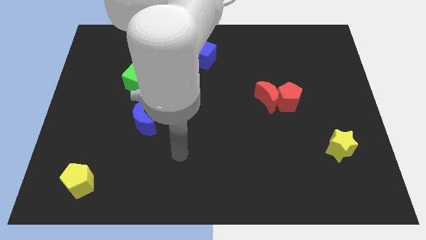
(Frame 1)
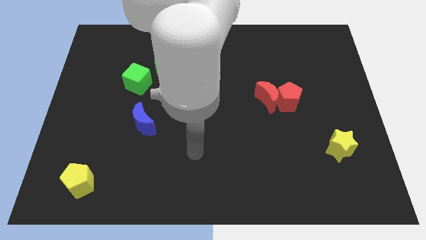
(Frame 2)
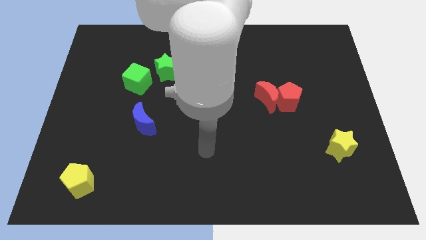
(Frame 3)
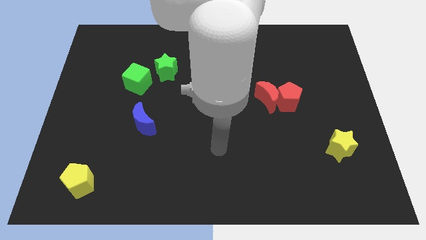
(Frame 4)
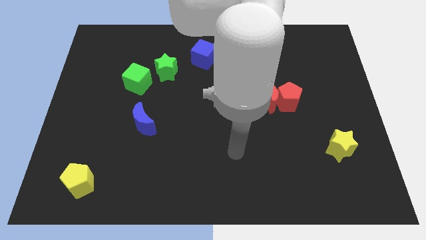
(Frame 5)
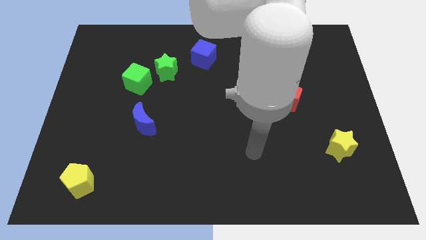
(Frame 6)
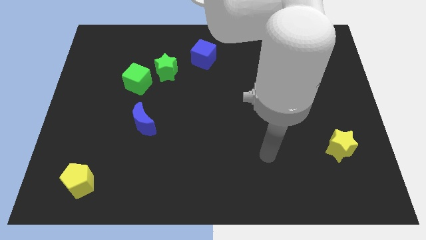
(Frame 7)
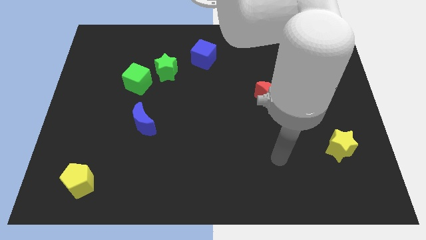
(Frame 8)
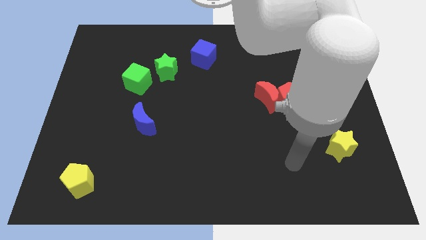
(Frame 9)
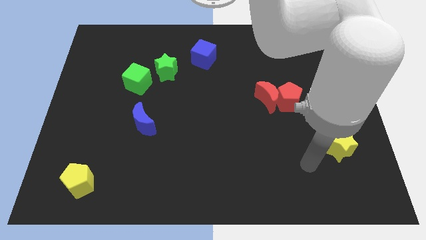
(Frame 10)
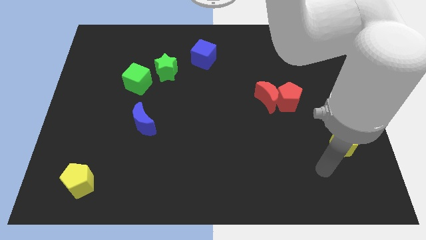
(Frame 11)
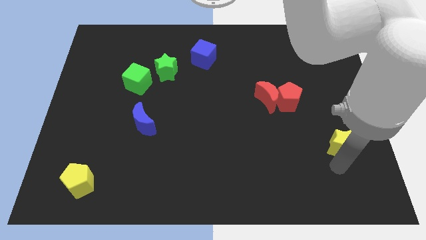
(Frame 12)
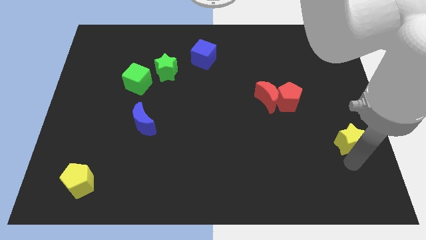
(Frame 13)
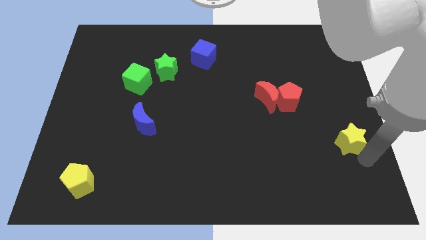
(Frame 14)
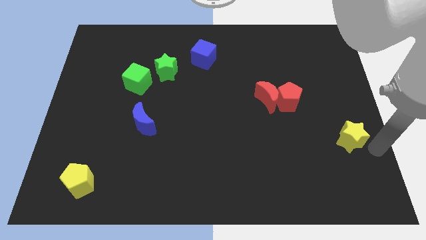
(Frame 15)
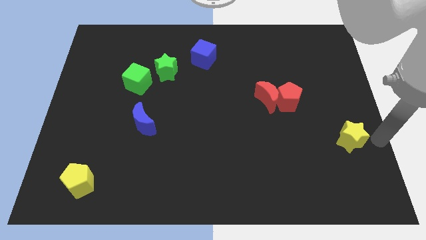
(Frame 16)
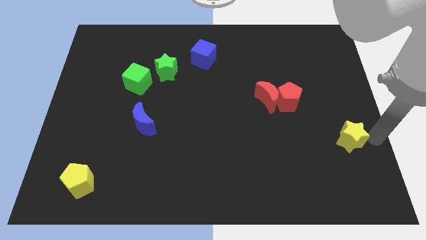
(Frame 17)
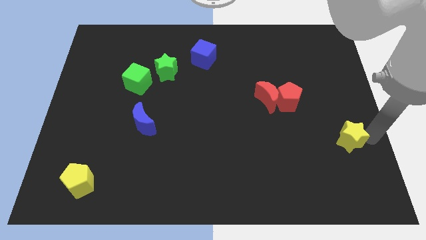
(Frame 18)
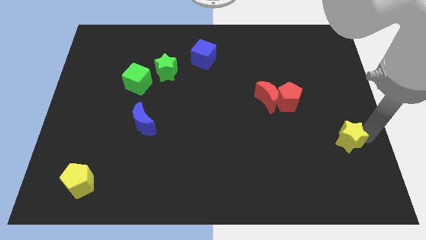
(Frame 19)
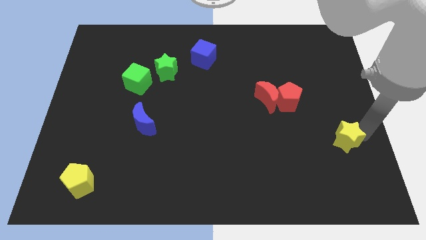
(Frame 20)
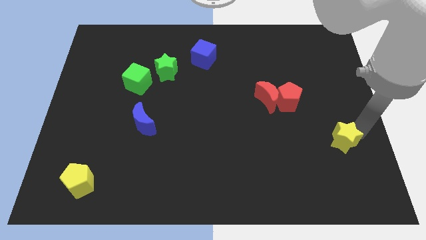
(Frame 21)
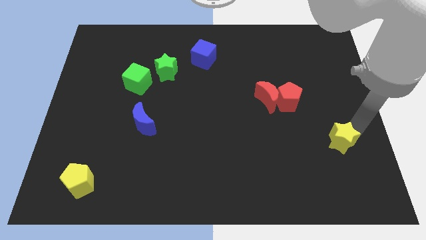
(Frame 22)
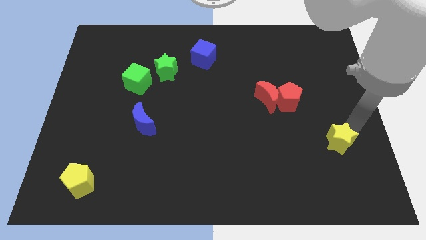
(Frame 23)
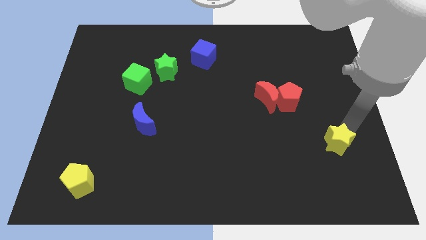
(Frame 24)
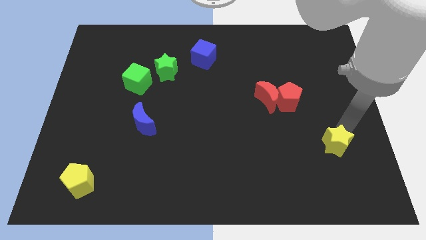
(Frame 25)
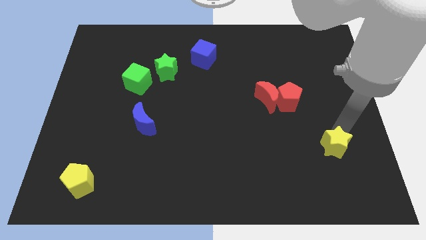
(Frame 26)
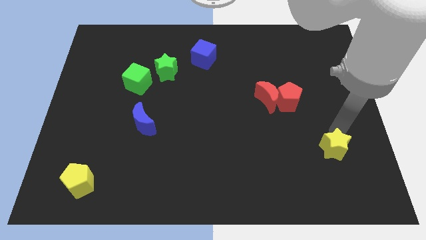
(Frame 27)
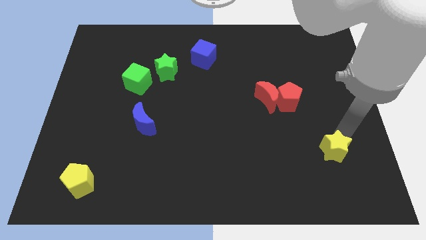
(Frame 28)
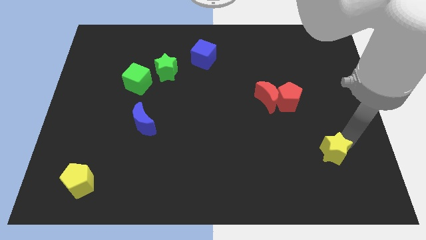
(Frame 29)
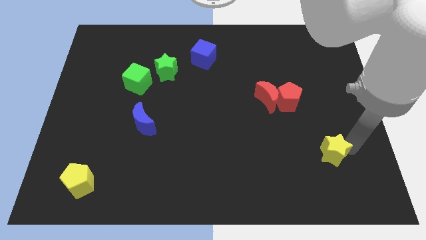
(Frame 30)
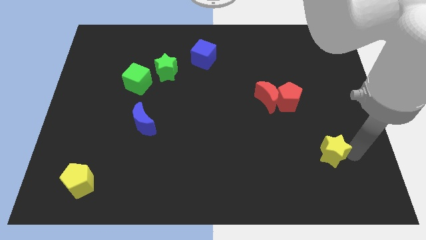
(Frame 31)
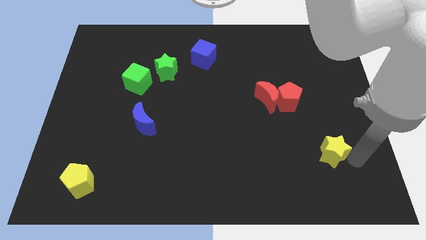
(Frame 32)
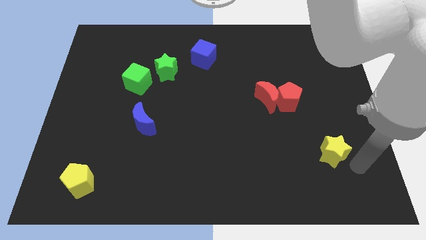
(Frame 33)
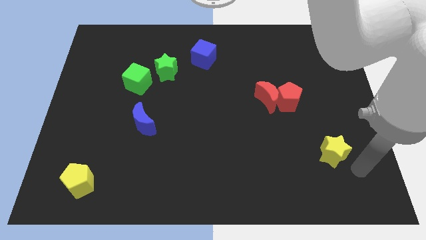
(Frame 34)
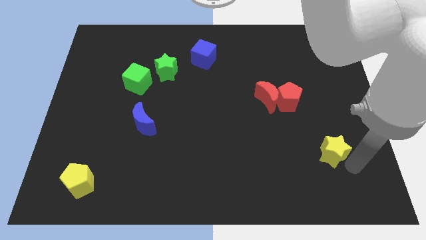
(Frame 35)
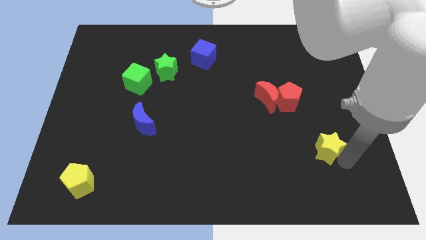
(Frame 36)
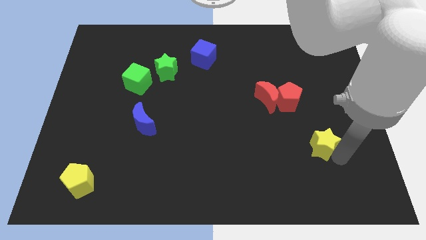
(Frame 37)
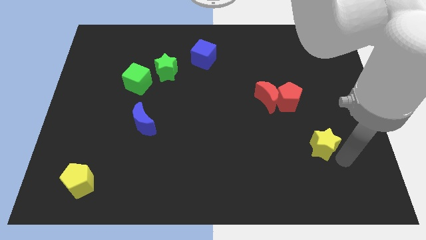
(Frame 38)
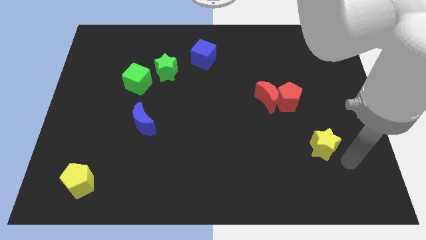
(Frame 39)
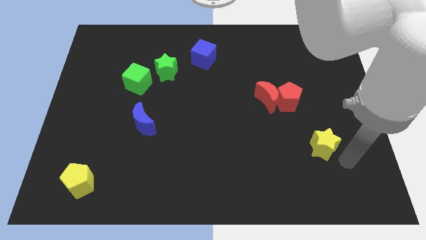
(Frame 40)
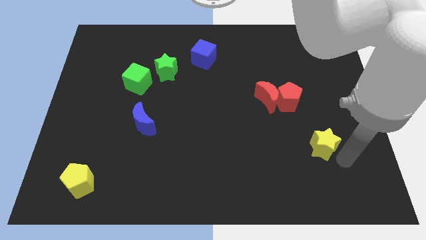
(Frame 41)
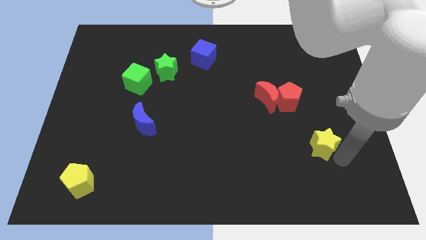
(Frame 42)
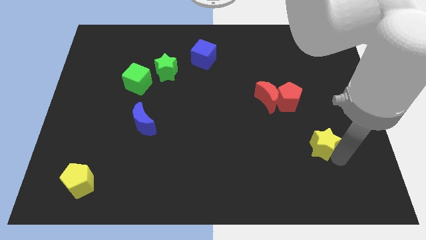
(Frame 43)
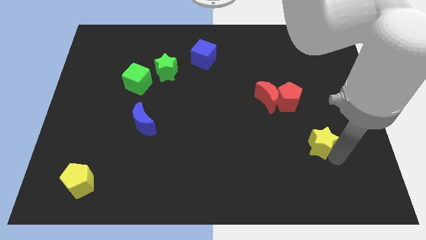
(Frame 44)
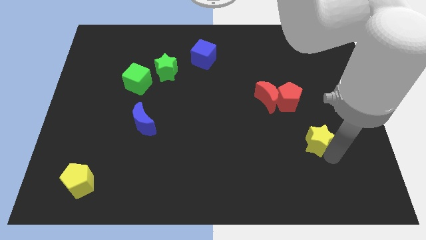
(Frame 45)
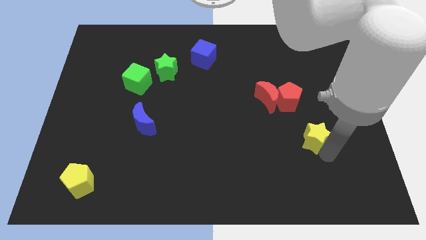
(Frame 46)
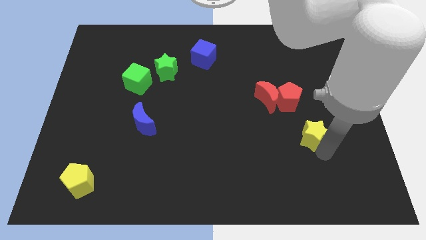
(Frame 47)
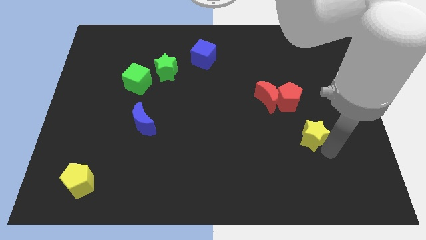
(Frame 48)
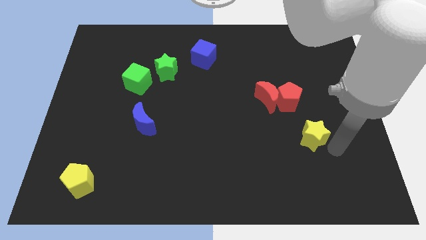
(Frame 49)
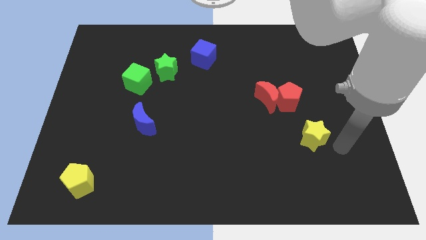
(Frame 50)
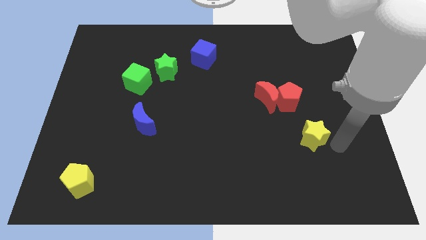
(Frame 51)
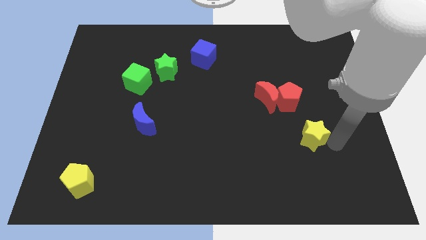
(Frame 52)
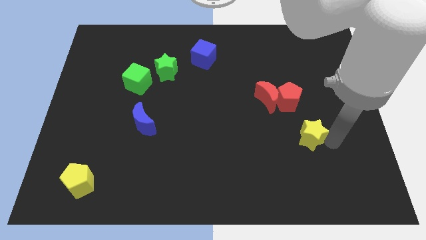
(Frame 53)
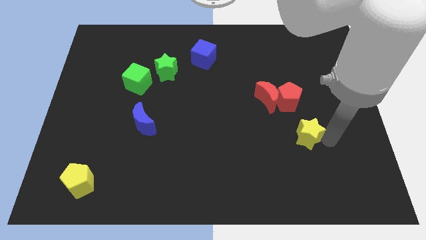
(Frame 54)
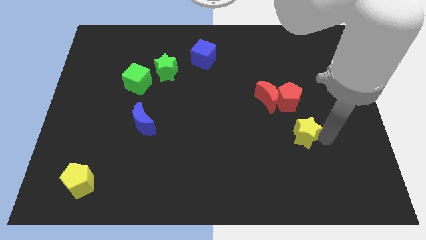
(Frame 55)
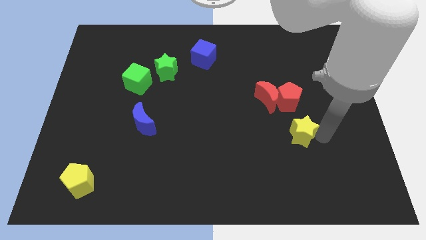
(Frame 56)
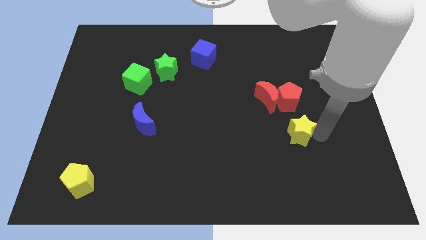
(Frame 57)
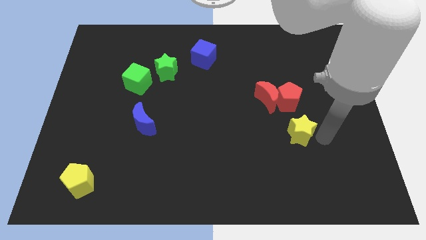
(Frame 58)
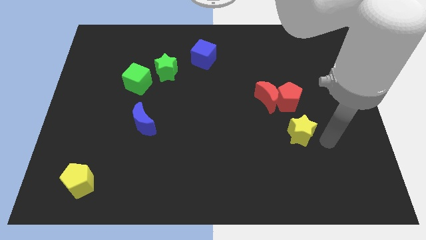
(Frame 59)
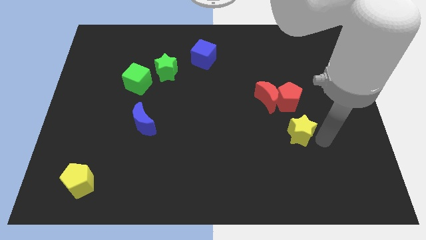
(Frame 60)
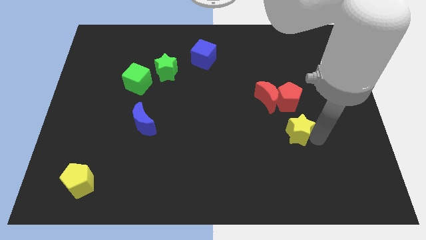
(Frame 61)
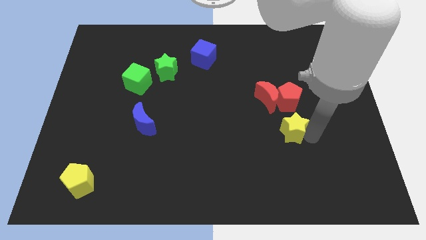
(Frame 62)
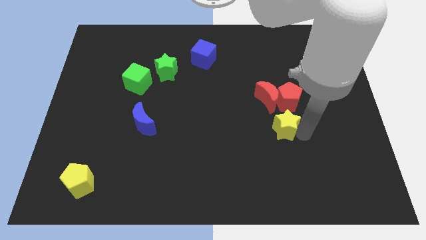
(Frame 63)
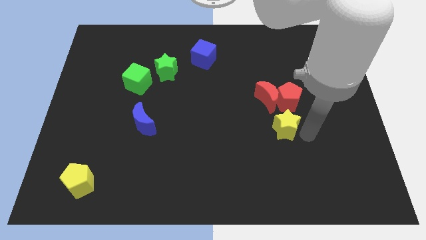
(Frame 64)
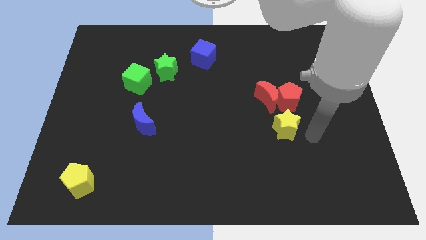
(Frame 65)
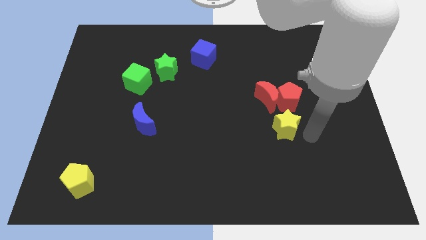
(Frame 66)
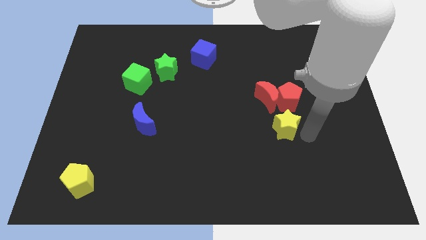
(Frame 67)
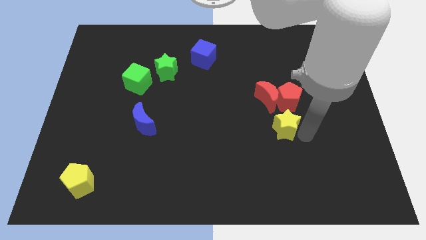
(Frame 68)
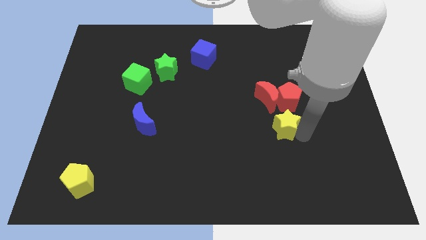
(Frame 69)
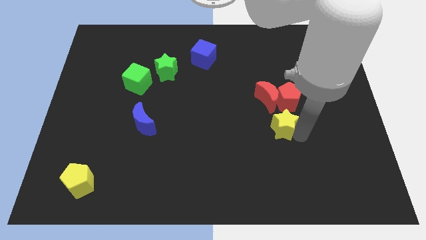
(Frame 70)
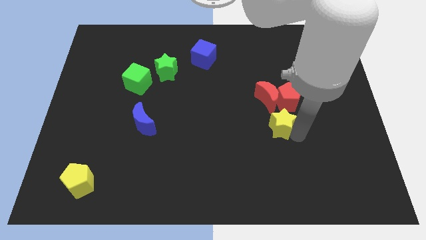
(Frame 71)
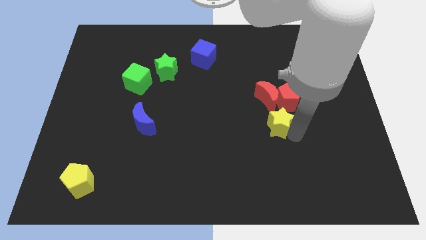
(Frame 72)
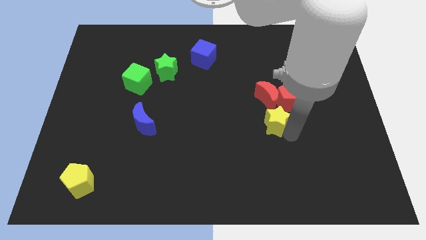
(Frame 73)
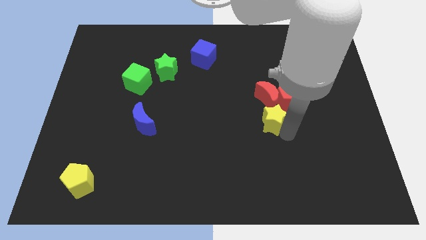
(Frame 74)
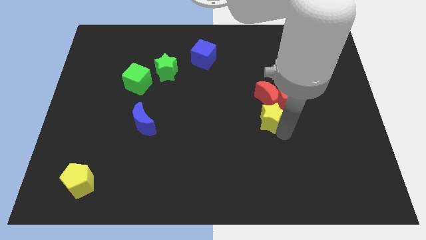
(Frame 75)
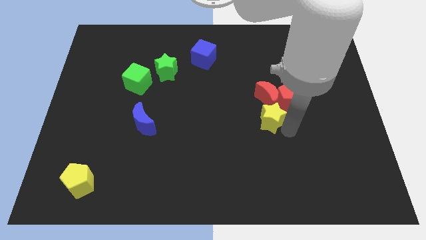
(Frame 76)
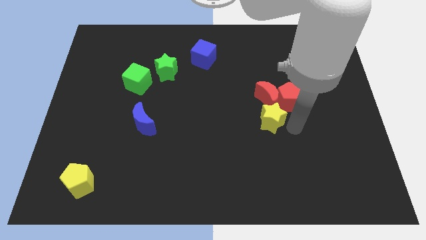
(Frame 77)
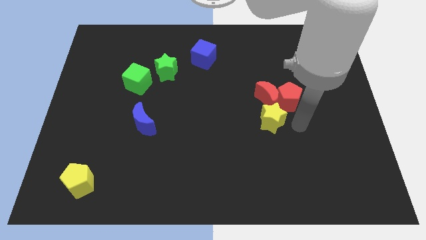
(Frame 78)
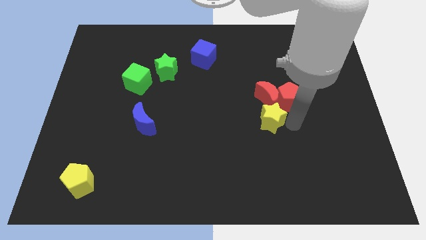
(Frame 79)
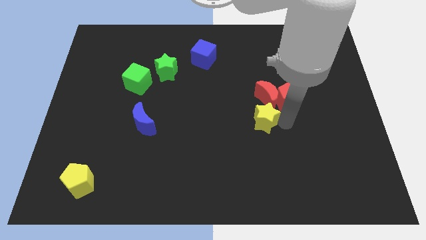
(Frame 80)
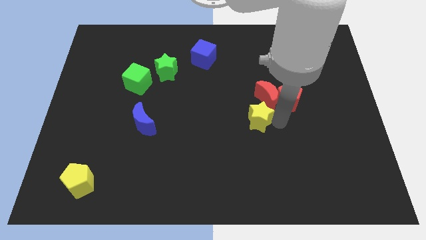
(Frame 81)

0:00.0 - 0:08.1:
move the yellow star to the middle
